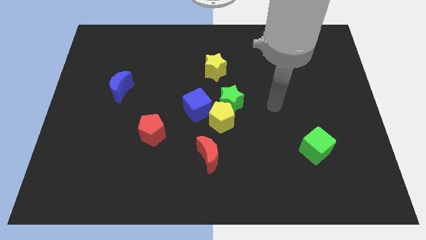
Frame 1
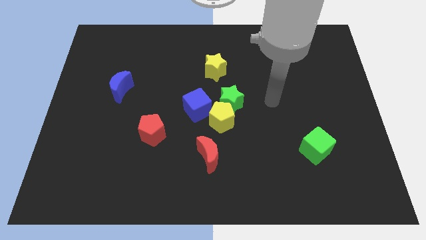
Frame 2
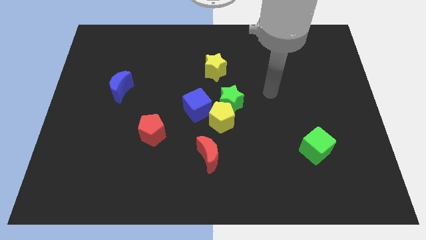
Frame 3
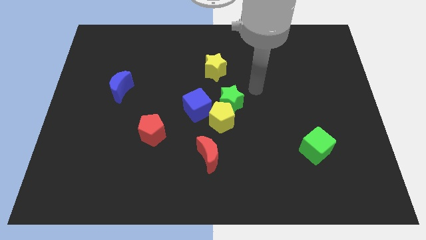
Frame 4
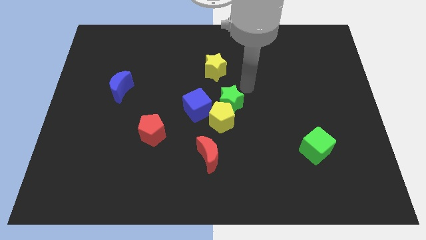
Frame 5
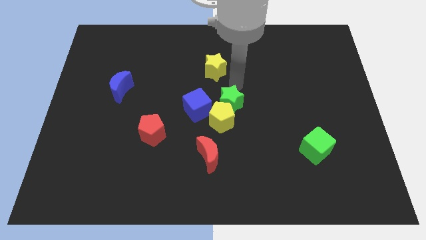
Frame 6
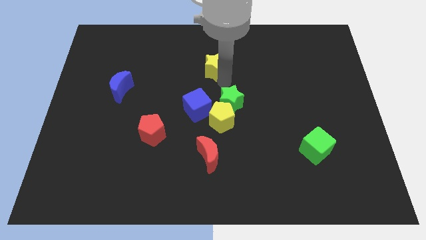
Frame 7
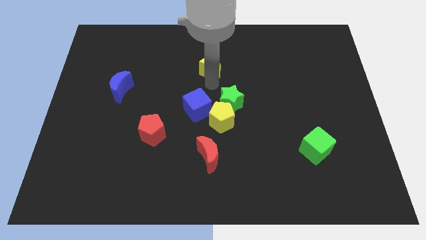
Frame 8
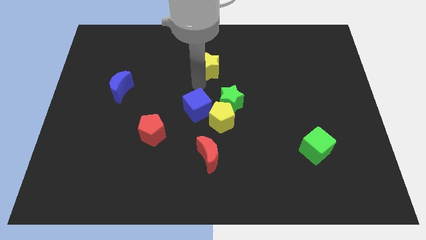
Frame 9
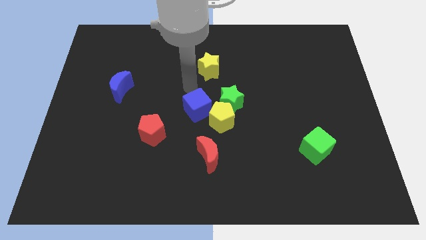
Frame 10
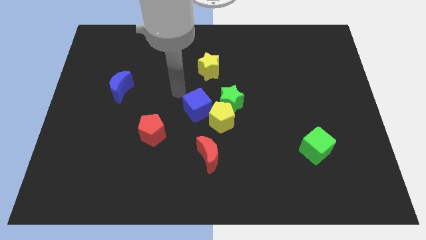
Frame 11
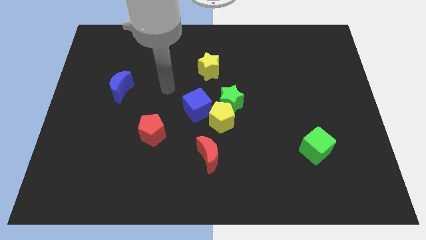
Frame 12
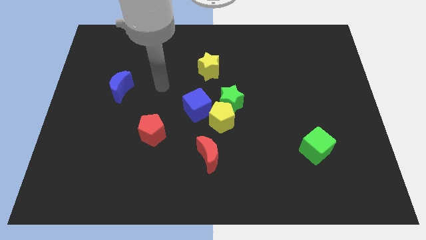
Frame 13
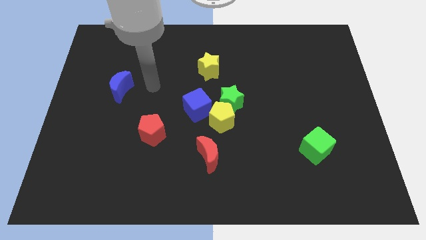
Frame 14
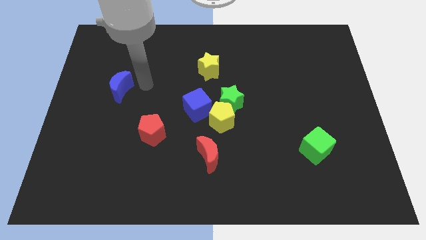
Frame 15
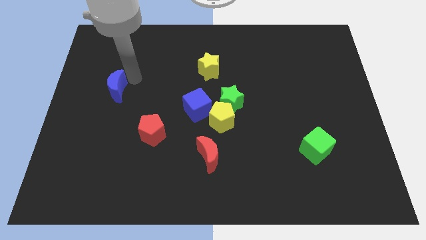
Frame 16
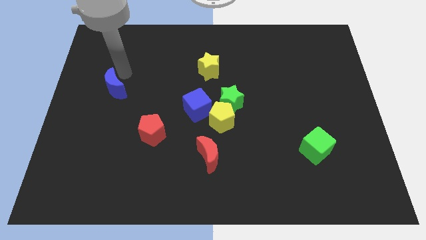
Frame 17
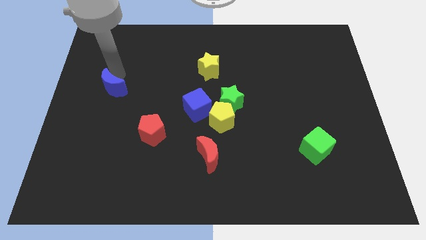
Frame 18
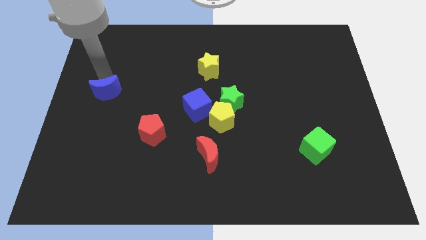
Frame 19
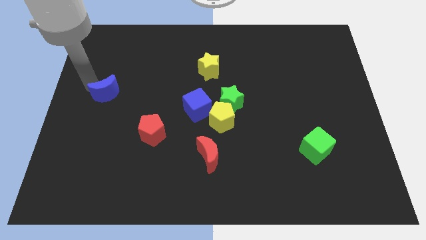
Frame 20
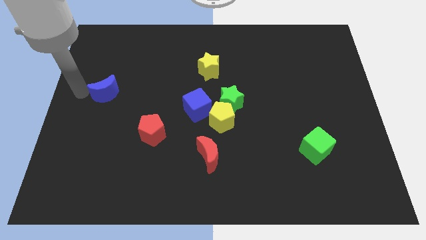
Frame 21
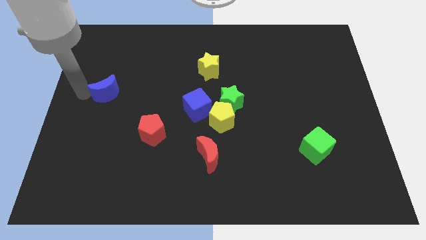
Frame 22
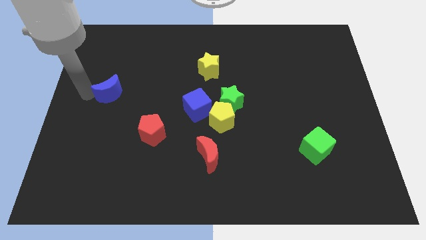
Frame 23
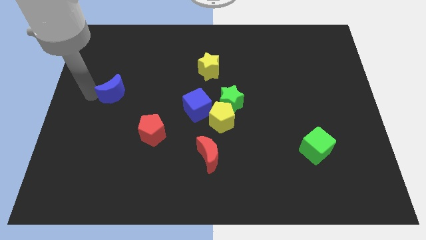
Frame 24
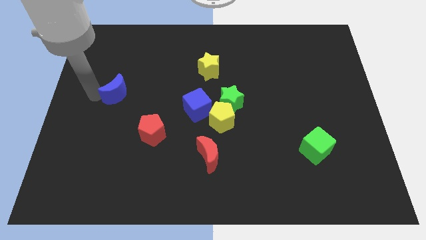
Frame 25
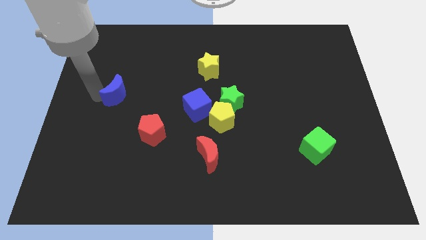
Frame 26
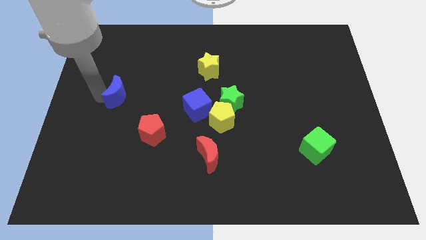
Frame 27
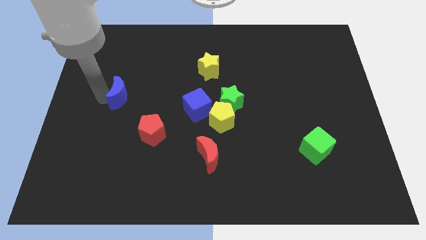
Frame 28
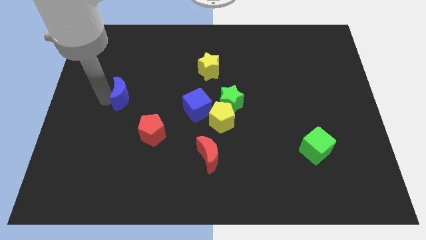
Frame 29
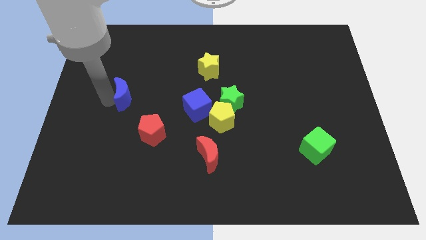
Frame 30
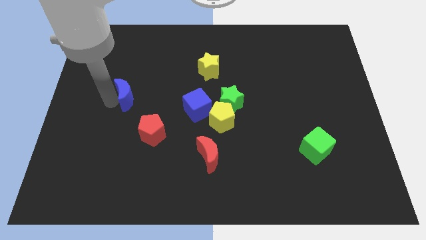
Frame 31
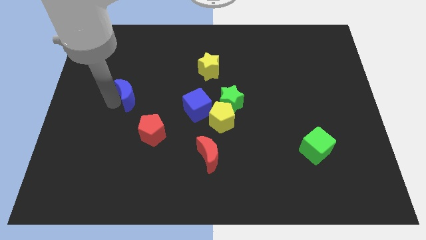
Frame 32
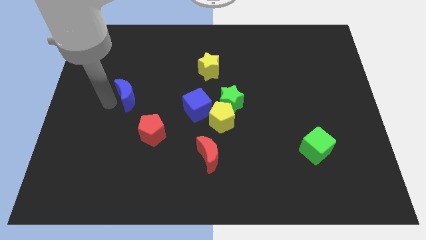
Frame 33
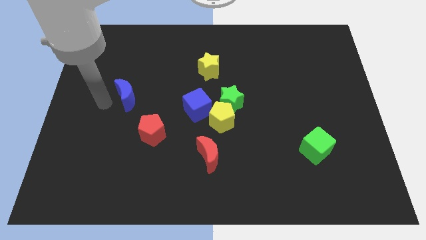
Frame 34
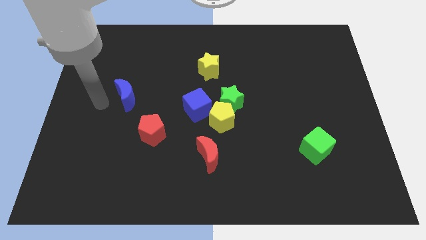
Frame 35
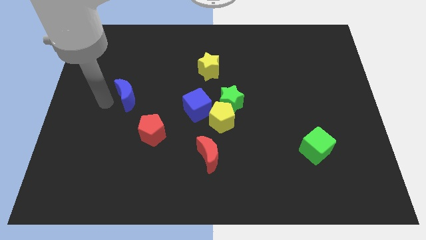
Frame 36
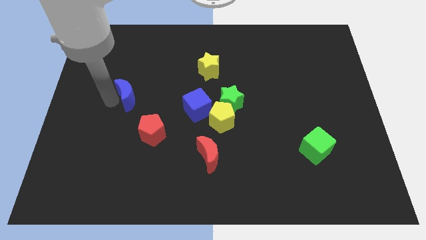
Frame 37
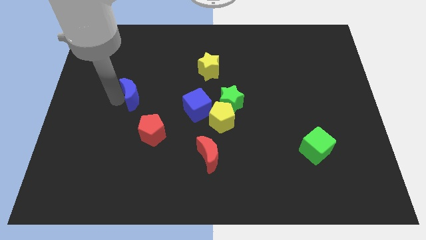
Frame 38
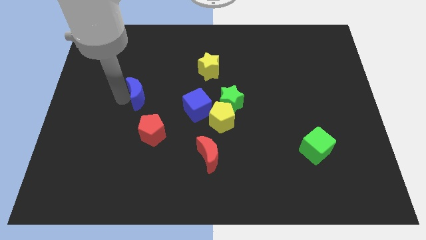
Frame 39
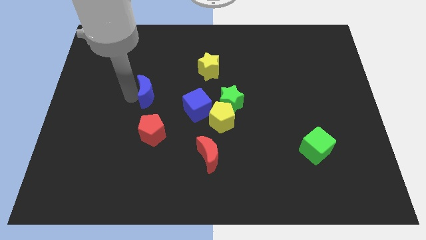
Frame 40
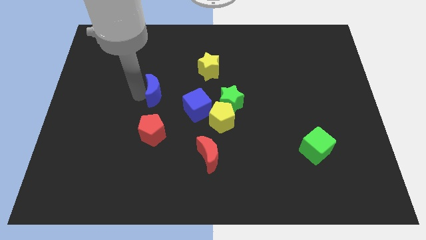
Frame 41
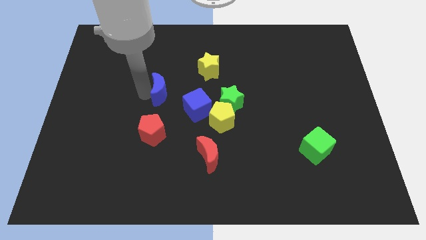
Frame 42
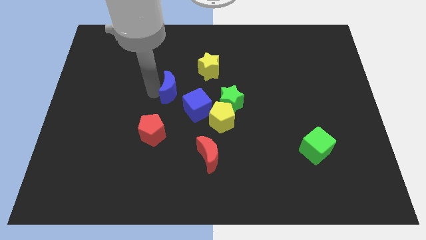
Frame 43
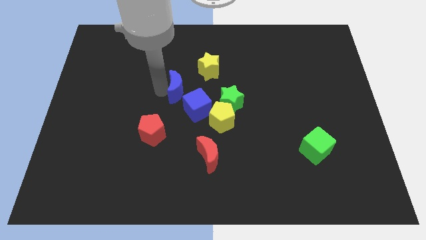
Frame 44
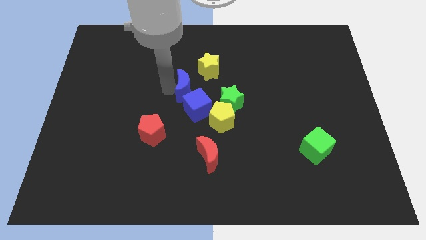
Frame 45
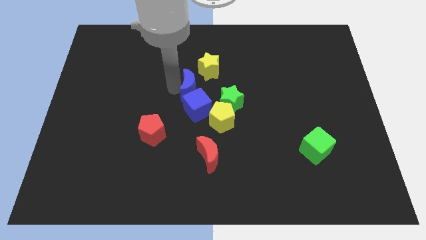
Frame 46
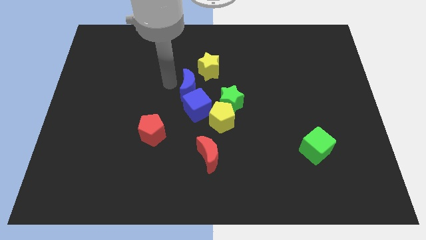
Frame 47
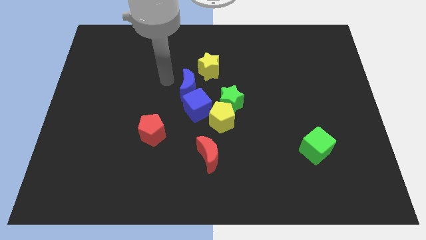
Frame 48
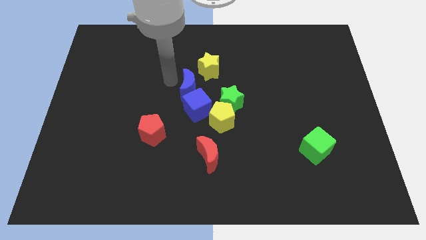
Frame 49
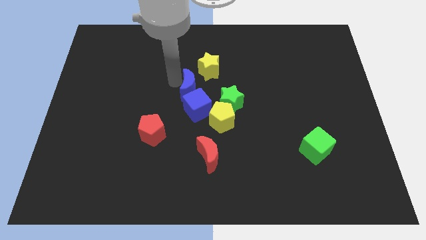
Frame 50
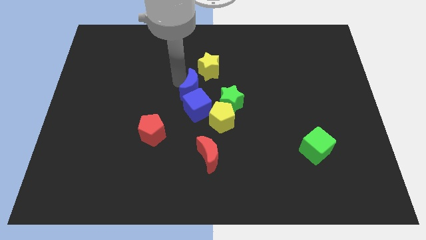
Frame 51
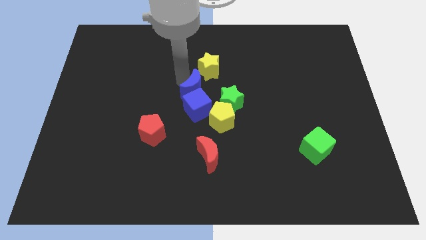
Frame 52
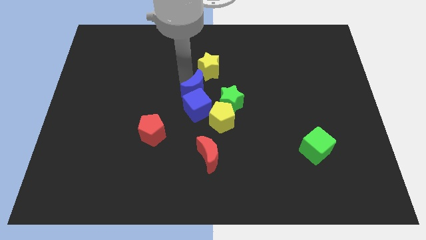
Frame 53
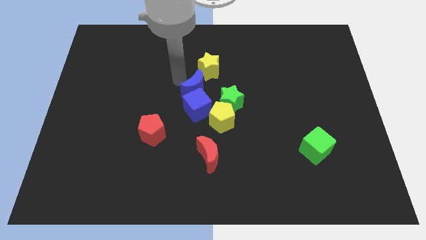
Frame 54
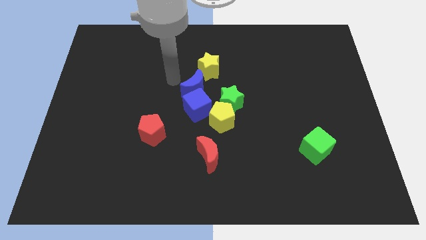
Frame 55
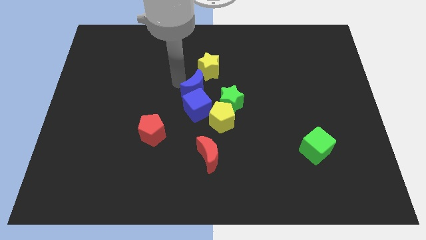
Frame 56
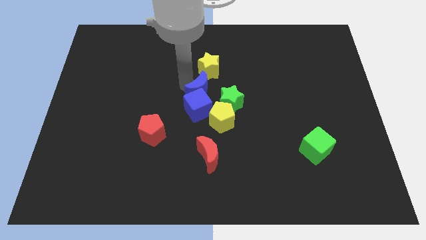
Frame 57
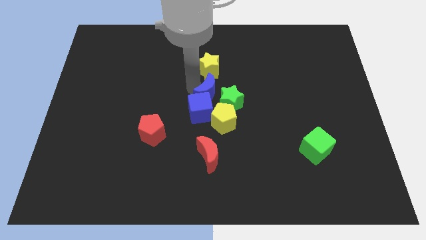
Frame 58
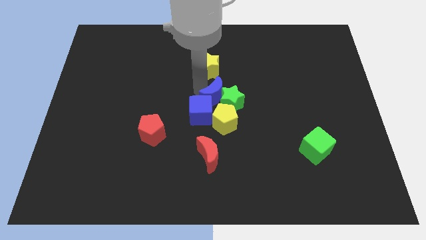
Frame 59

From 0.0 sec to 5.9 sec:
push the blue moon to the green star

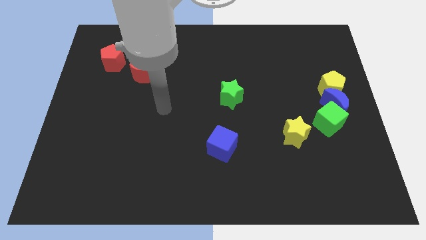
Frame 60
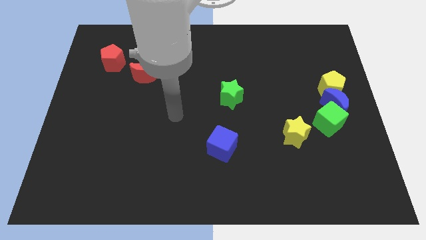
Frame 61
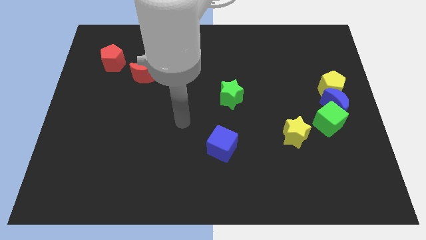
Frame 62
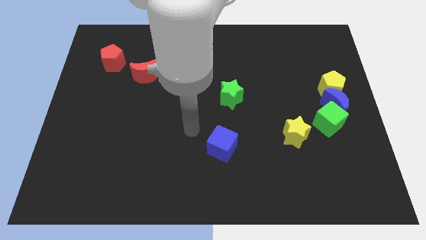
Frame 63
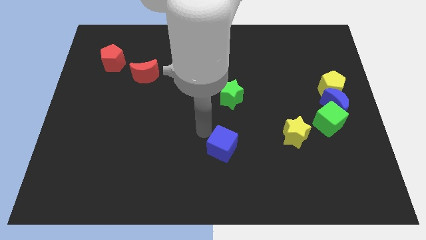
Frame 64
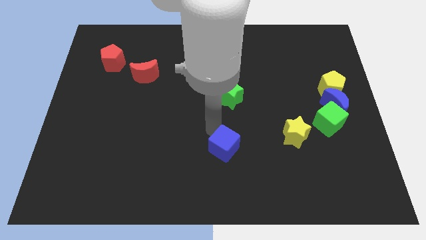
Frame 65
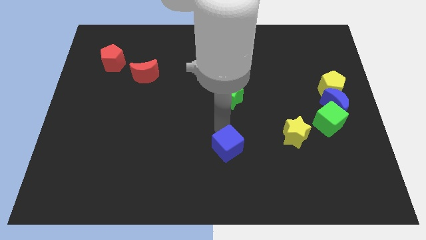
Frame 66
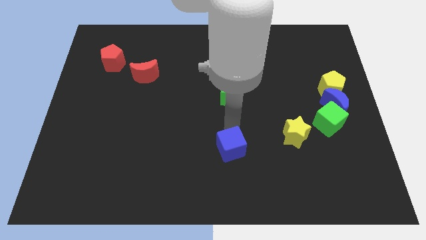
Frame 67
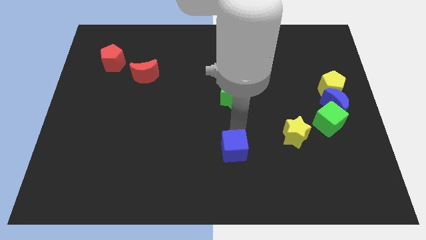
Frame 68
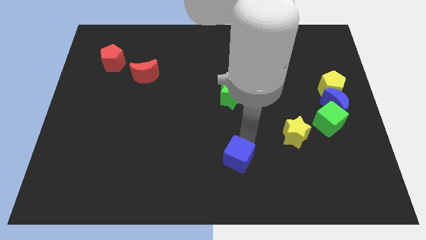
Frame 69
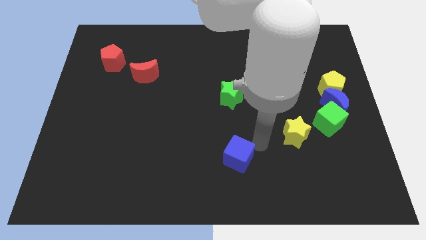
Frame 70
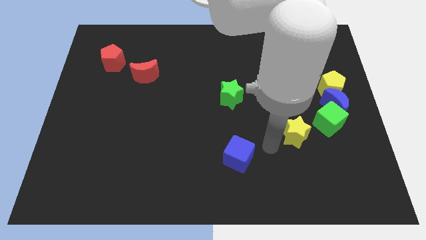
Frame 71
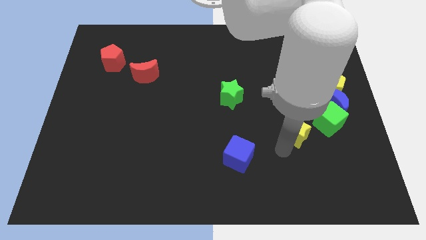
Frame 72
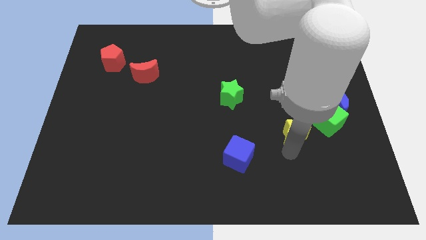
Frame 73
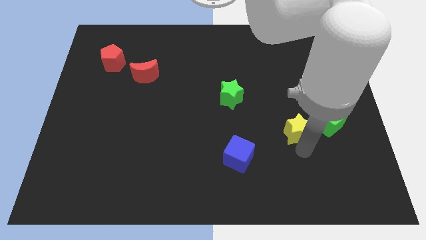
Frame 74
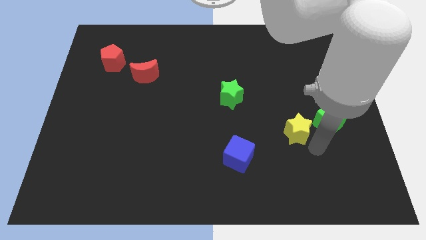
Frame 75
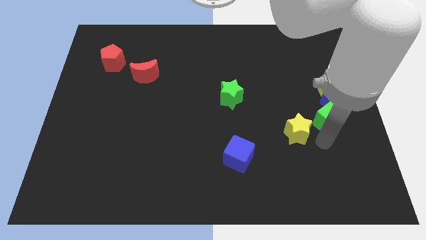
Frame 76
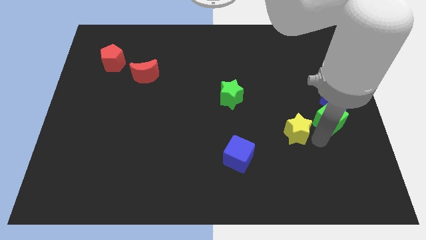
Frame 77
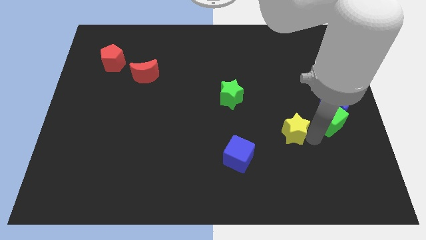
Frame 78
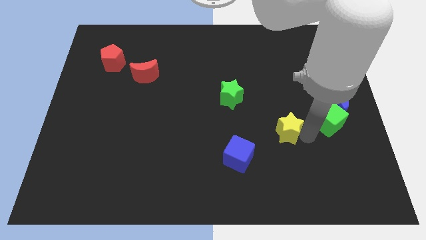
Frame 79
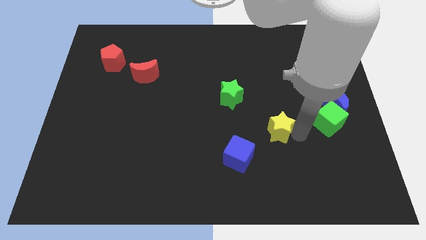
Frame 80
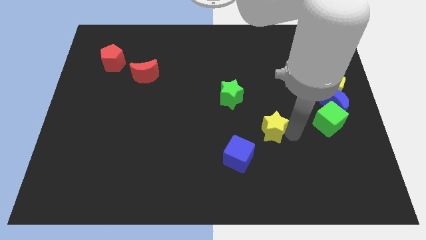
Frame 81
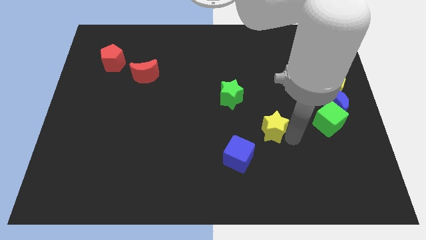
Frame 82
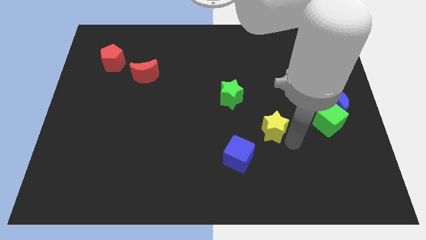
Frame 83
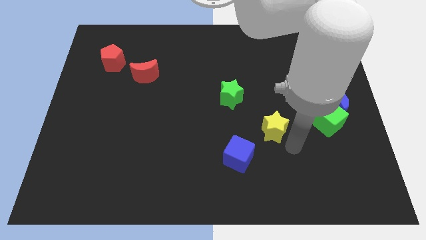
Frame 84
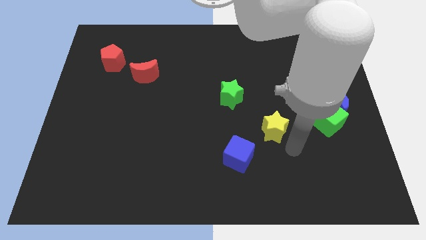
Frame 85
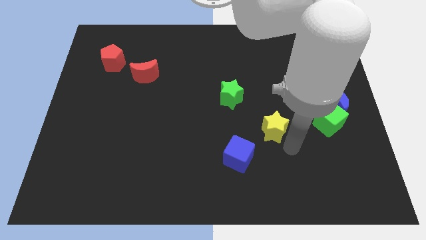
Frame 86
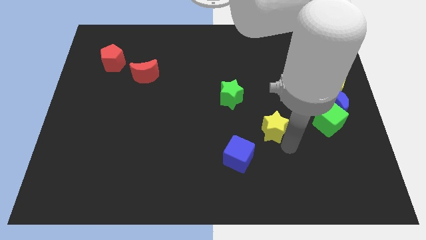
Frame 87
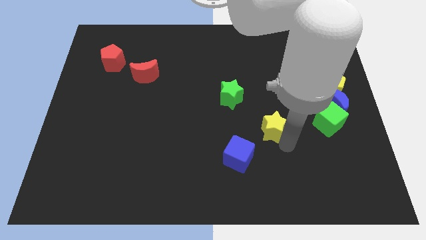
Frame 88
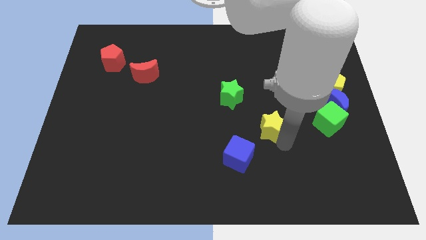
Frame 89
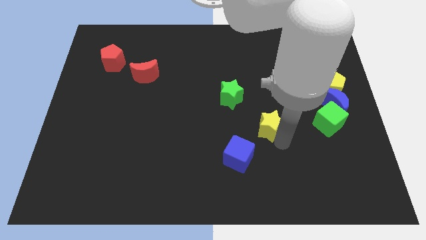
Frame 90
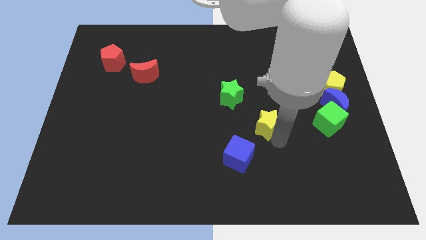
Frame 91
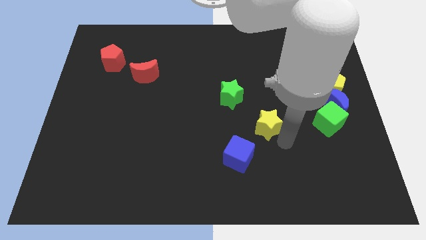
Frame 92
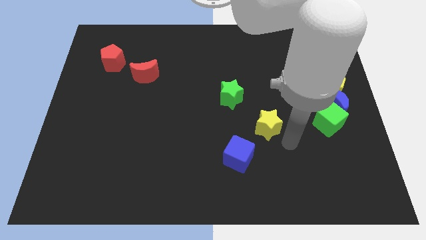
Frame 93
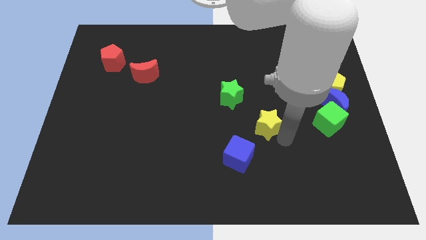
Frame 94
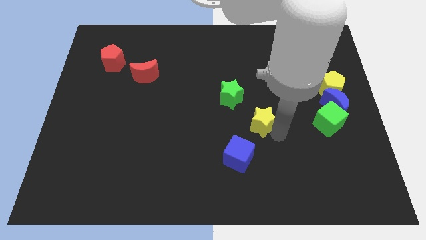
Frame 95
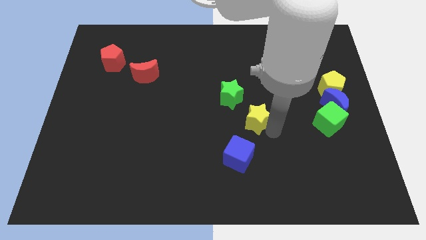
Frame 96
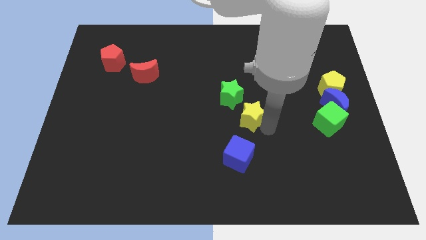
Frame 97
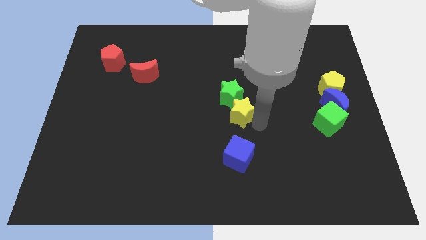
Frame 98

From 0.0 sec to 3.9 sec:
push the yellow star next to the green star
